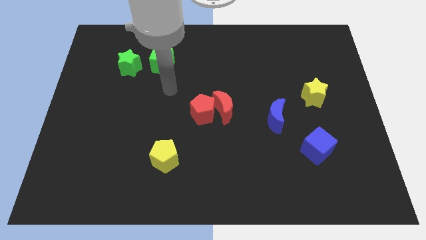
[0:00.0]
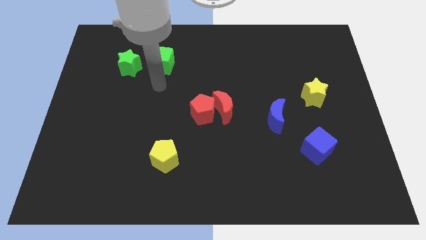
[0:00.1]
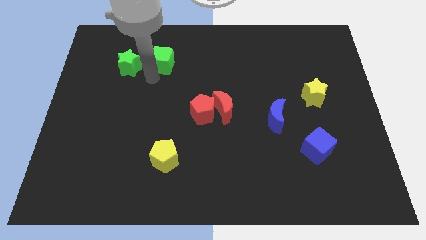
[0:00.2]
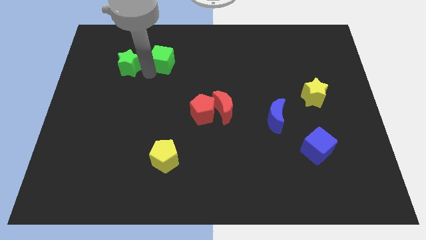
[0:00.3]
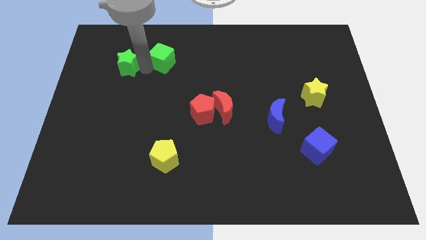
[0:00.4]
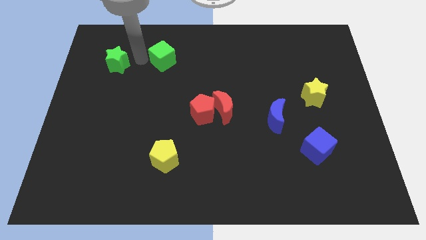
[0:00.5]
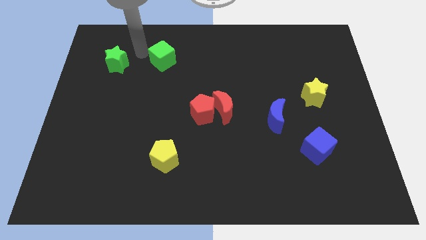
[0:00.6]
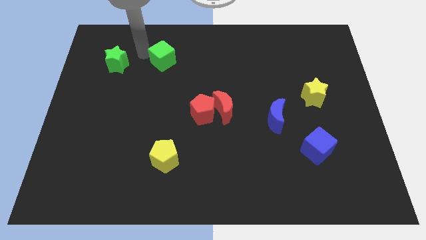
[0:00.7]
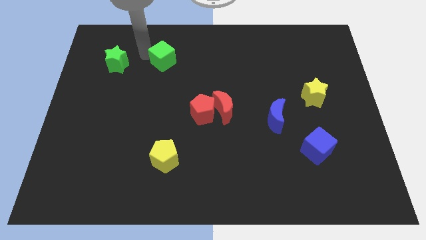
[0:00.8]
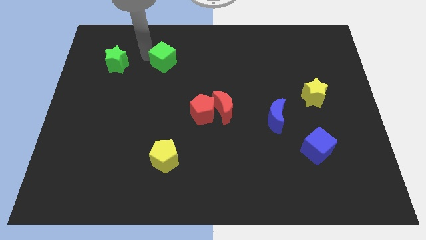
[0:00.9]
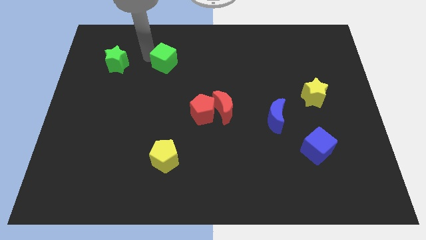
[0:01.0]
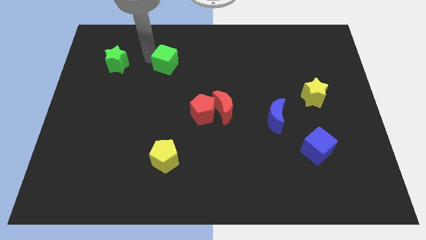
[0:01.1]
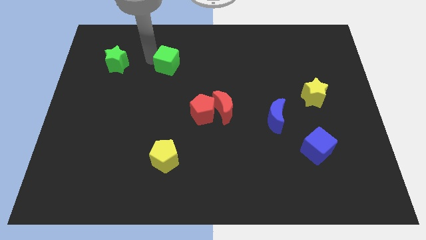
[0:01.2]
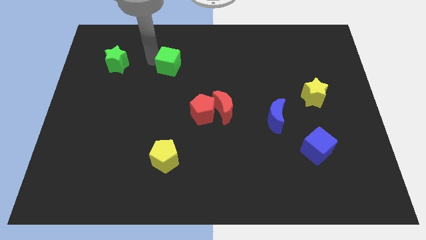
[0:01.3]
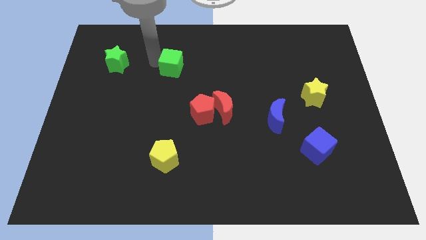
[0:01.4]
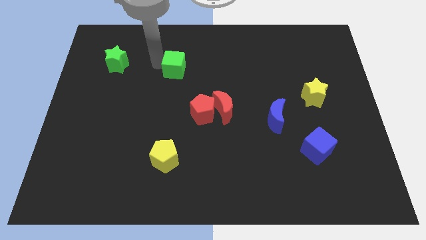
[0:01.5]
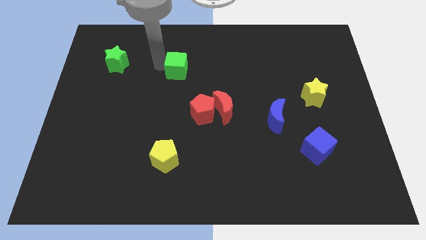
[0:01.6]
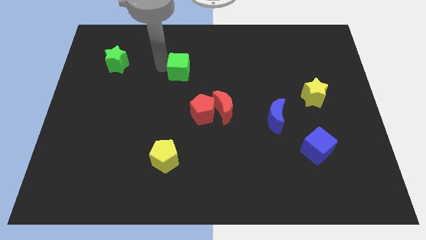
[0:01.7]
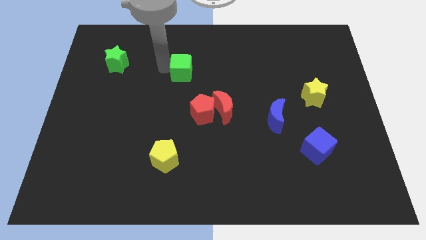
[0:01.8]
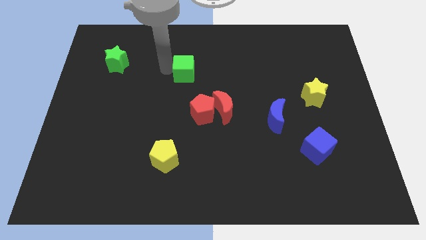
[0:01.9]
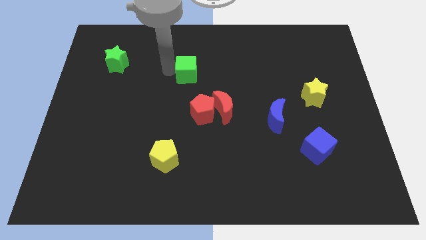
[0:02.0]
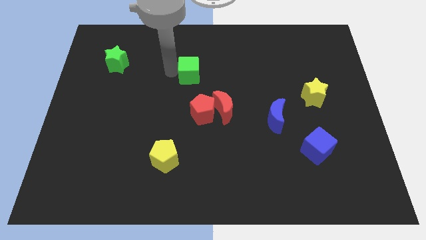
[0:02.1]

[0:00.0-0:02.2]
slightly push the green cube to the right

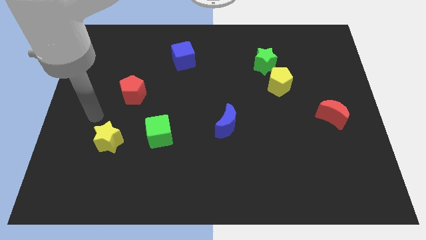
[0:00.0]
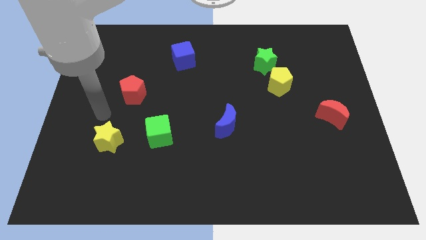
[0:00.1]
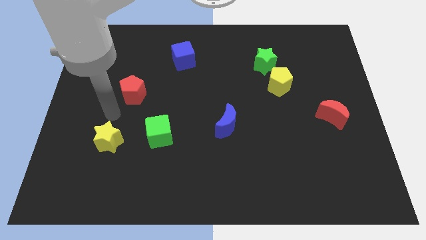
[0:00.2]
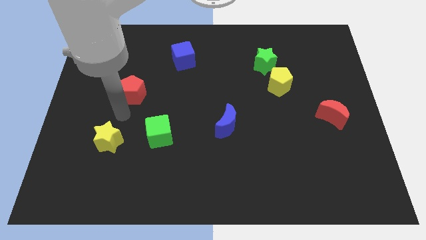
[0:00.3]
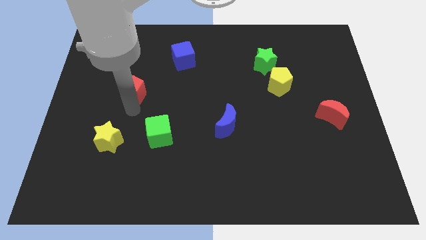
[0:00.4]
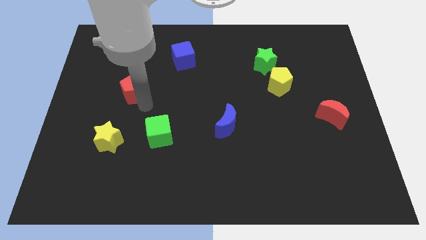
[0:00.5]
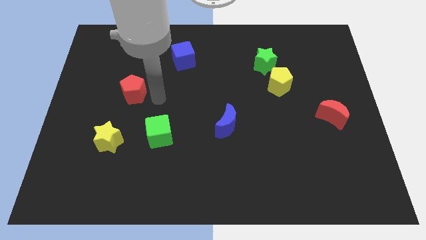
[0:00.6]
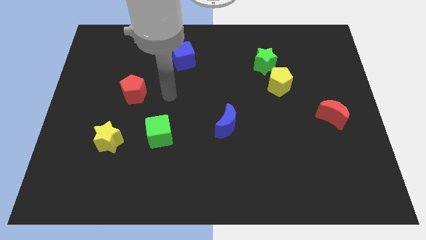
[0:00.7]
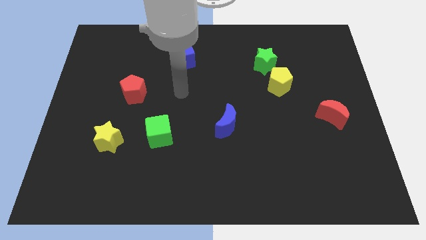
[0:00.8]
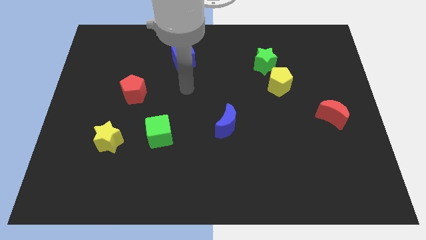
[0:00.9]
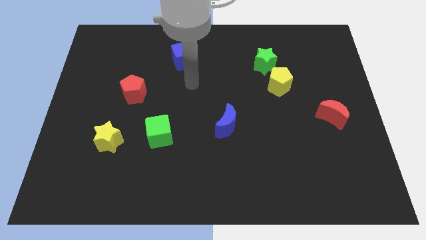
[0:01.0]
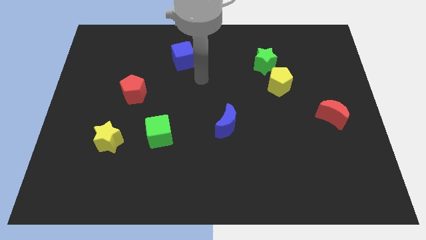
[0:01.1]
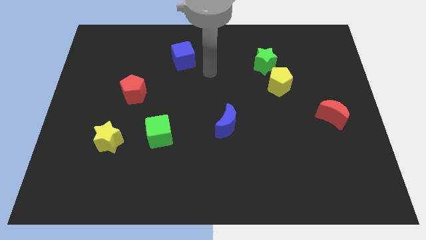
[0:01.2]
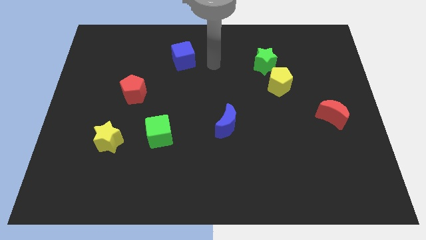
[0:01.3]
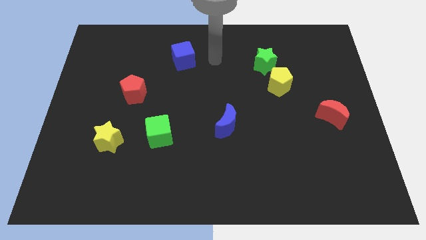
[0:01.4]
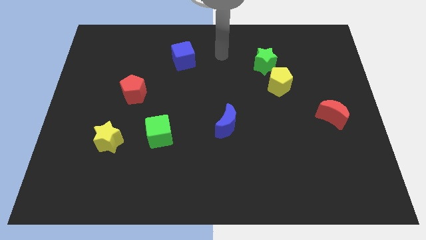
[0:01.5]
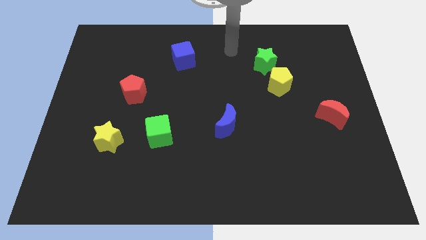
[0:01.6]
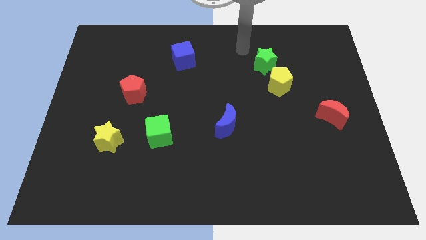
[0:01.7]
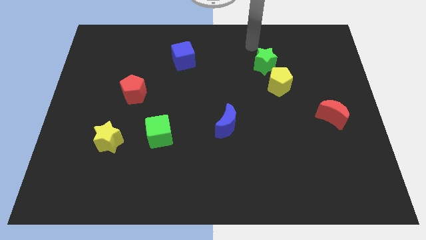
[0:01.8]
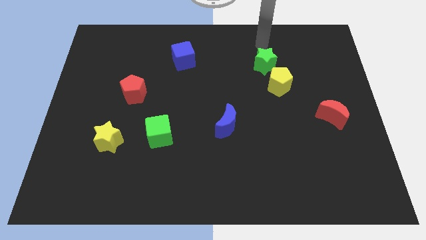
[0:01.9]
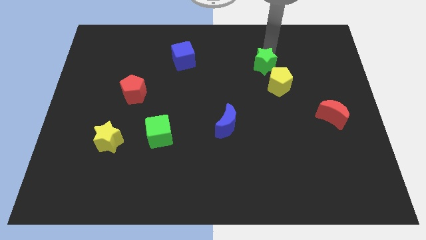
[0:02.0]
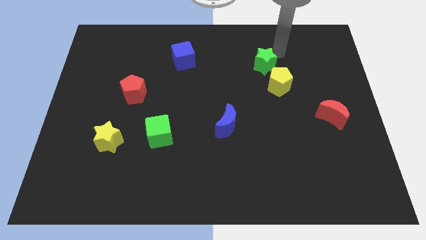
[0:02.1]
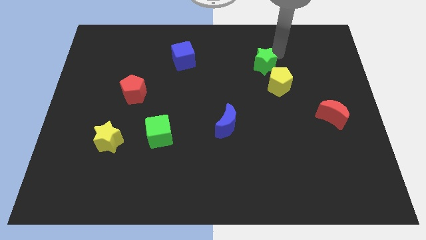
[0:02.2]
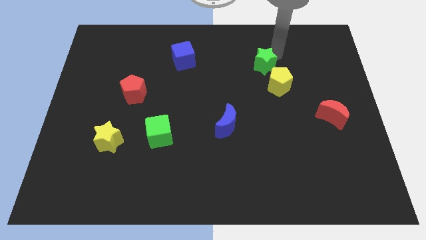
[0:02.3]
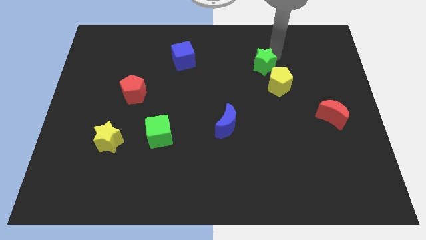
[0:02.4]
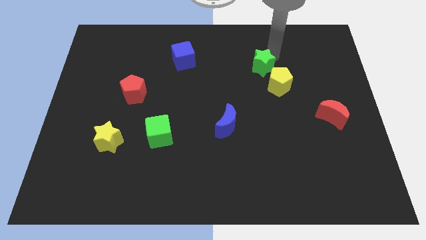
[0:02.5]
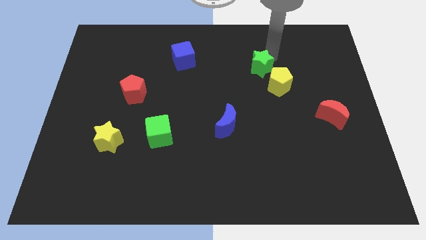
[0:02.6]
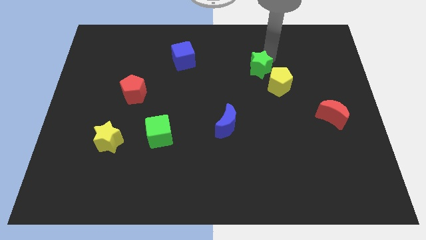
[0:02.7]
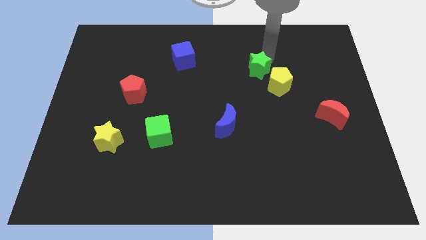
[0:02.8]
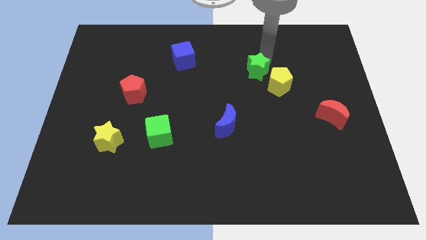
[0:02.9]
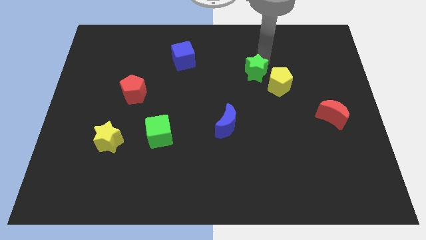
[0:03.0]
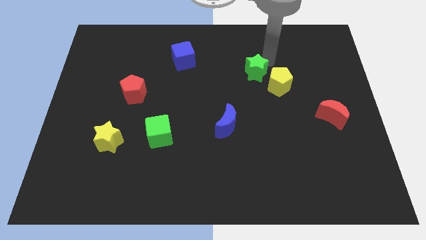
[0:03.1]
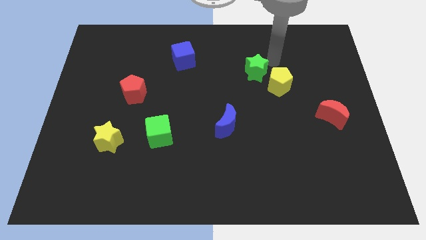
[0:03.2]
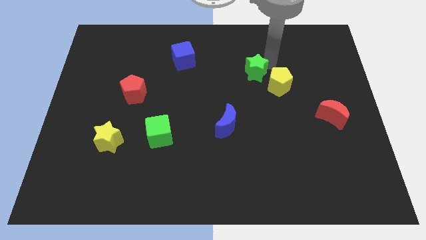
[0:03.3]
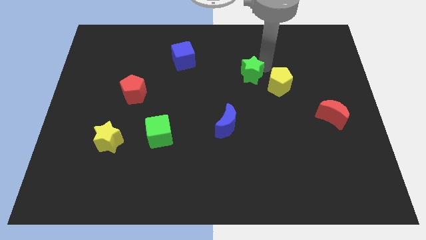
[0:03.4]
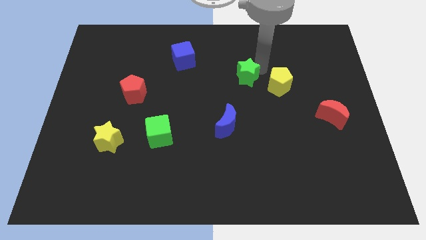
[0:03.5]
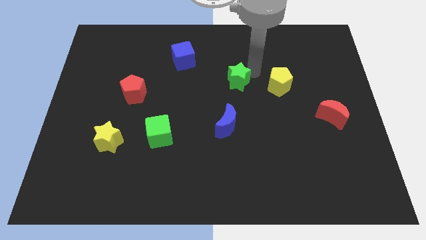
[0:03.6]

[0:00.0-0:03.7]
slightly push the green star down and to the left diagonally

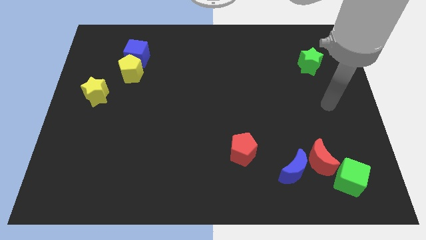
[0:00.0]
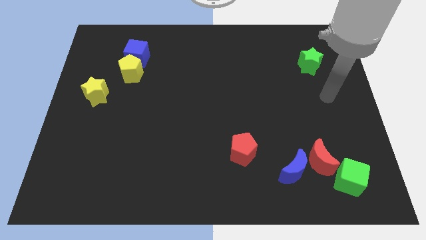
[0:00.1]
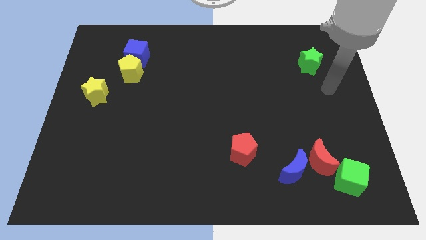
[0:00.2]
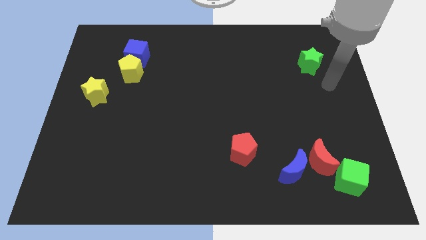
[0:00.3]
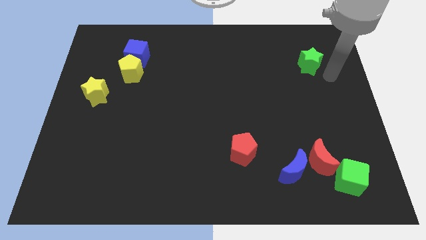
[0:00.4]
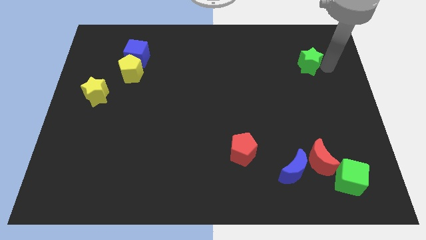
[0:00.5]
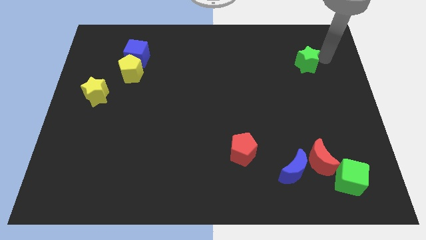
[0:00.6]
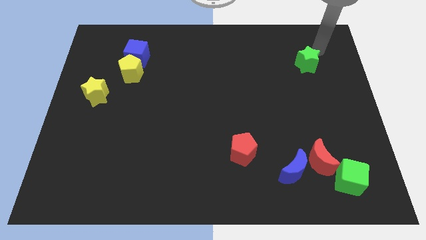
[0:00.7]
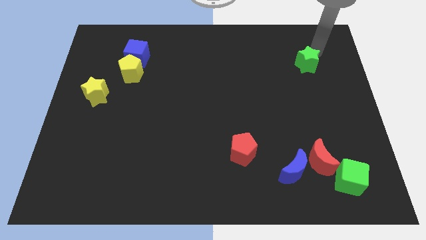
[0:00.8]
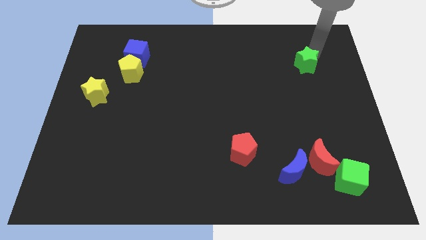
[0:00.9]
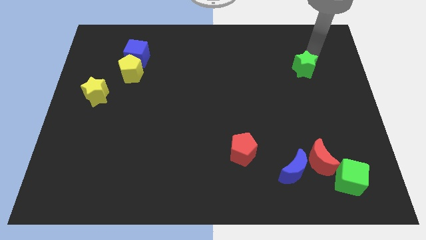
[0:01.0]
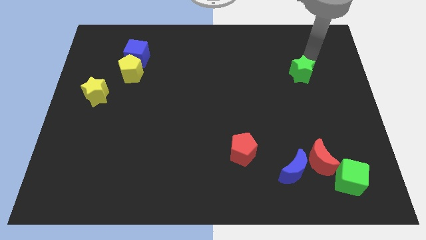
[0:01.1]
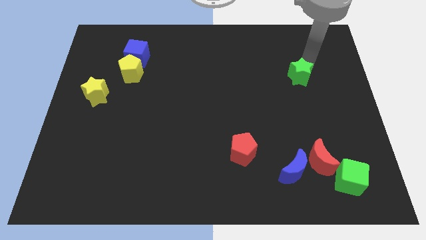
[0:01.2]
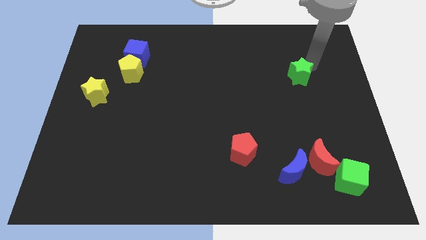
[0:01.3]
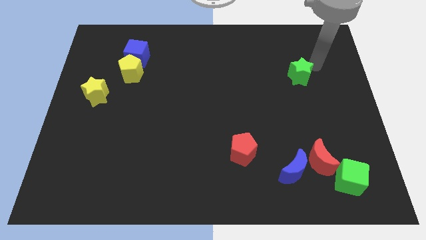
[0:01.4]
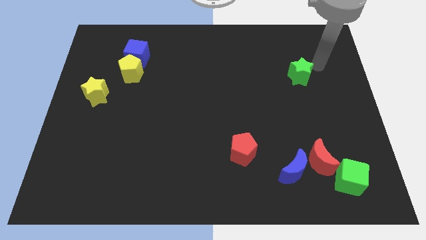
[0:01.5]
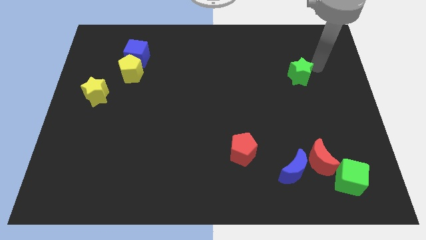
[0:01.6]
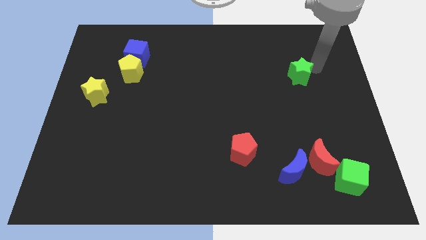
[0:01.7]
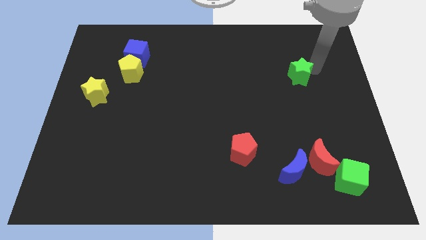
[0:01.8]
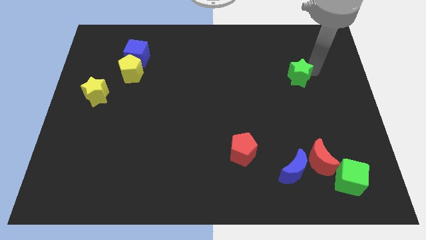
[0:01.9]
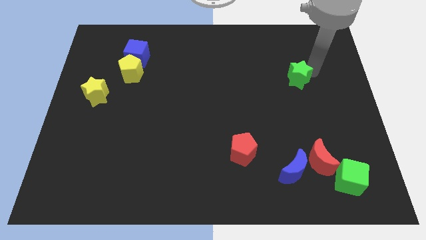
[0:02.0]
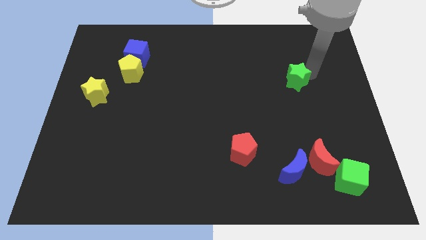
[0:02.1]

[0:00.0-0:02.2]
slide the green star a bit diagonally down and to the left

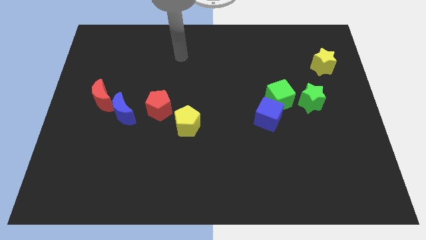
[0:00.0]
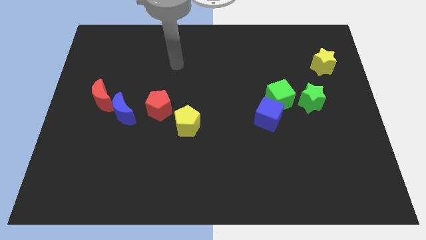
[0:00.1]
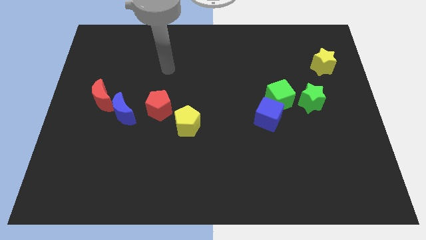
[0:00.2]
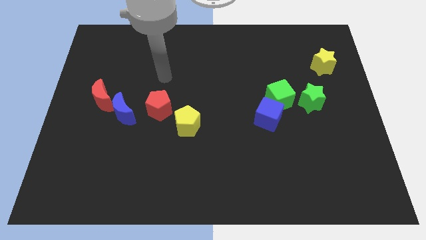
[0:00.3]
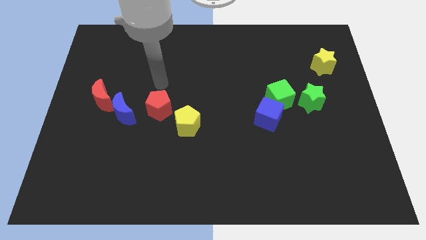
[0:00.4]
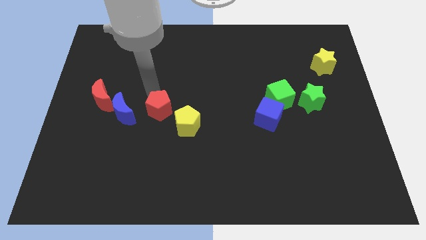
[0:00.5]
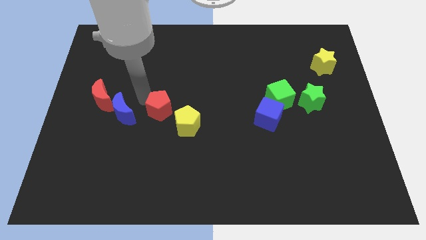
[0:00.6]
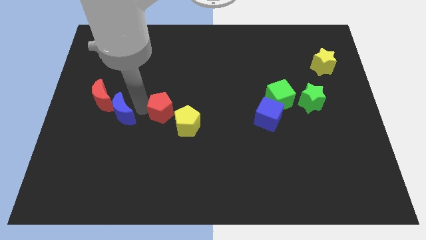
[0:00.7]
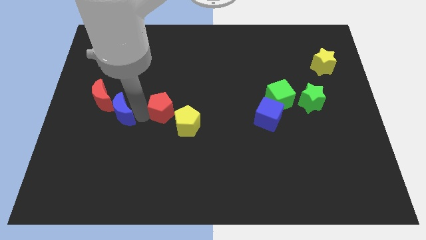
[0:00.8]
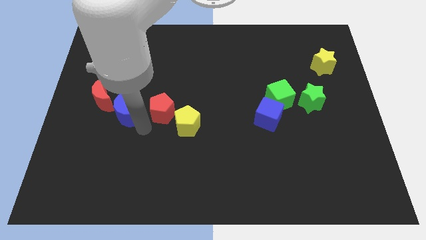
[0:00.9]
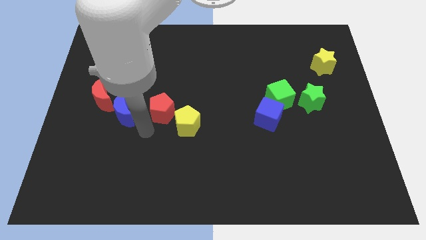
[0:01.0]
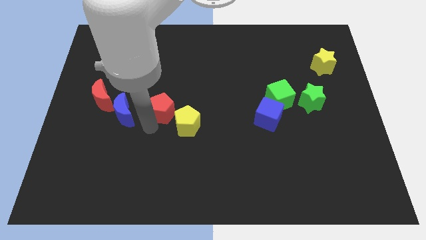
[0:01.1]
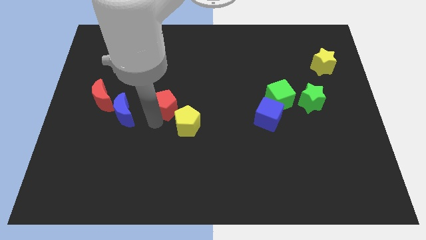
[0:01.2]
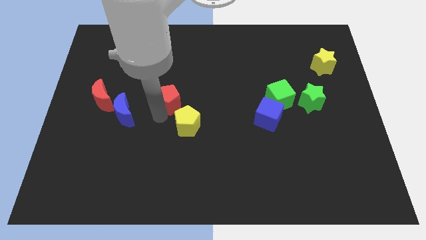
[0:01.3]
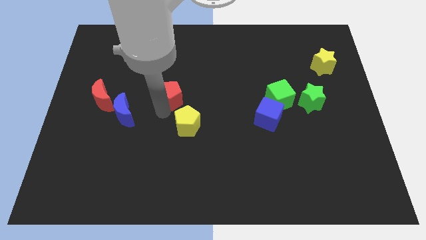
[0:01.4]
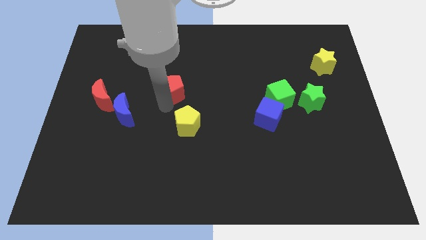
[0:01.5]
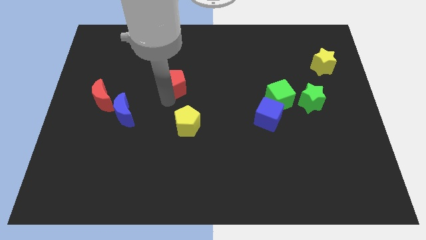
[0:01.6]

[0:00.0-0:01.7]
slightly slide the red pentagon upwards and to the right diagonally
